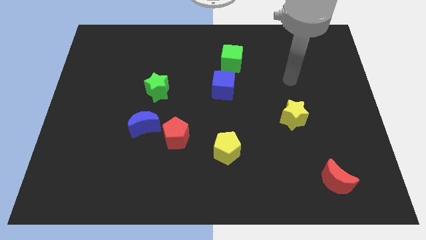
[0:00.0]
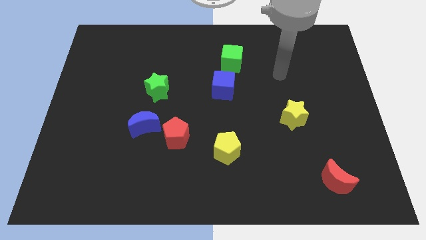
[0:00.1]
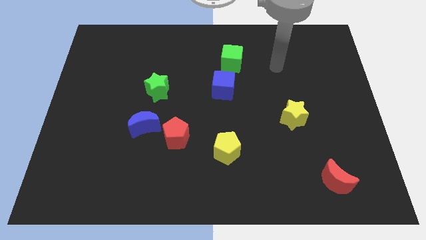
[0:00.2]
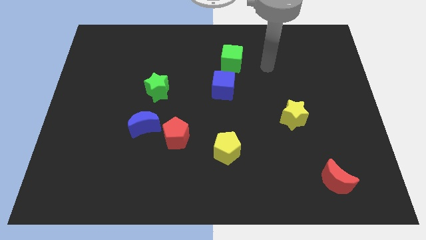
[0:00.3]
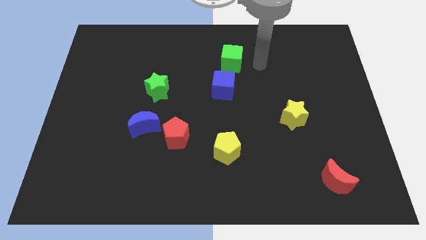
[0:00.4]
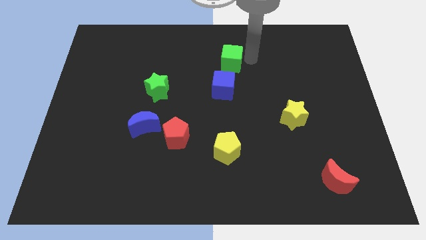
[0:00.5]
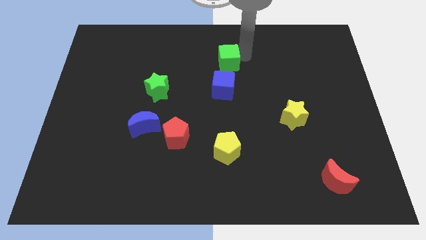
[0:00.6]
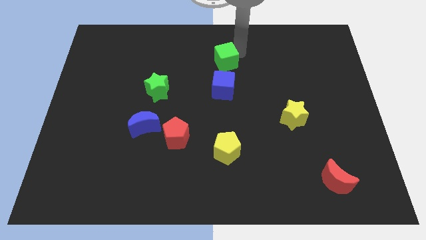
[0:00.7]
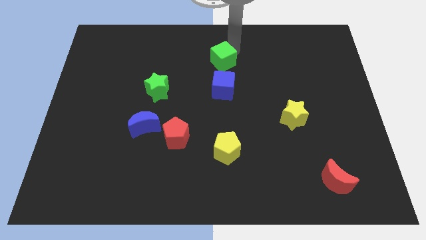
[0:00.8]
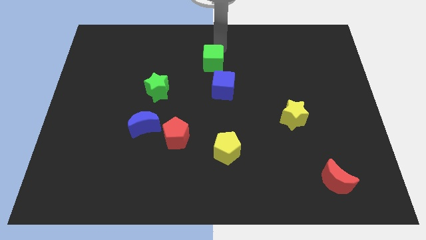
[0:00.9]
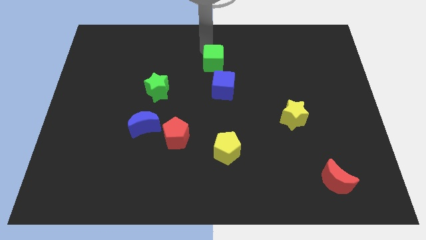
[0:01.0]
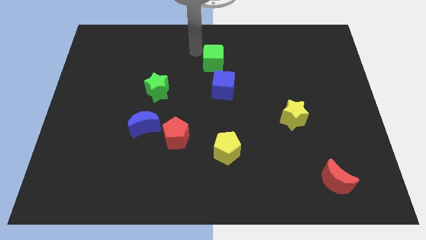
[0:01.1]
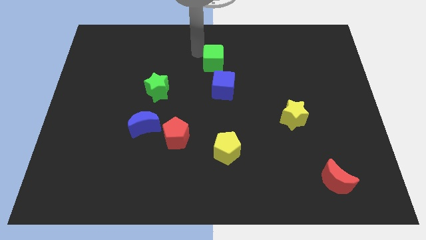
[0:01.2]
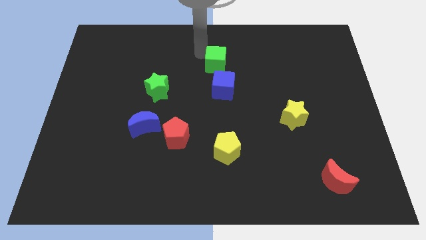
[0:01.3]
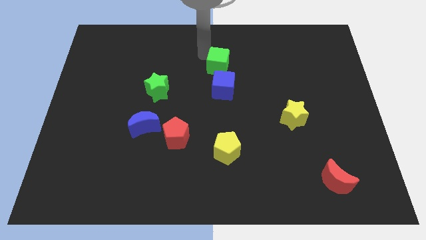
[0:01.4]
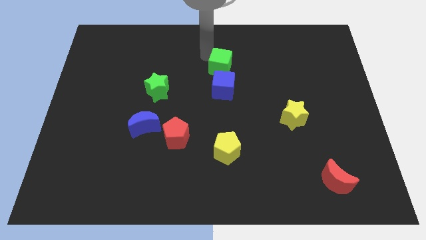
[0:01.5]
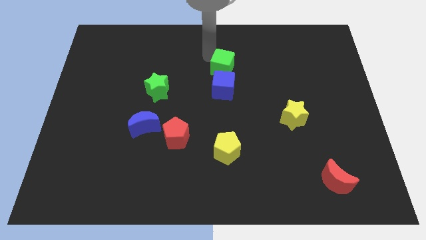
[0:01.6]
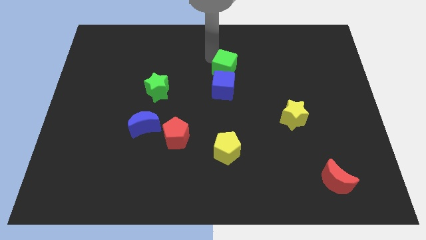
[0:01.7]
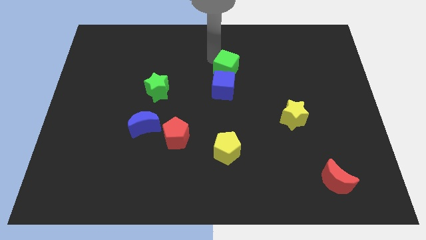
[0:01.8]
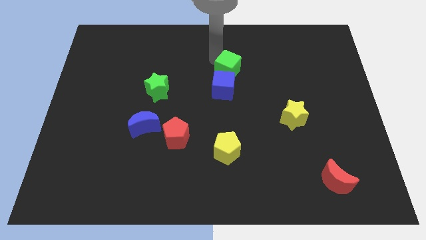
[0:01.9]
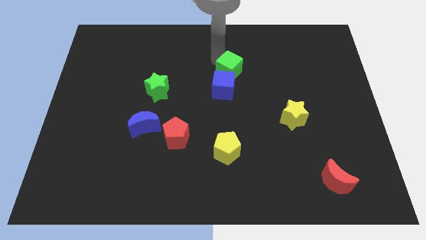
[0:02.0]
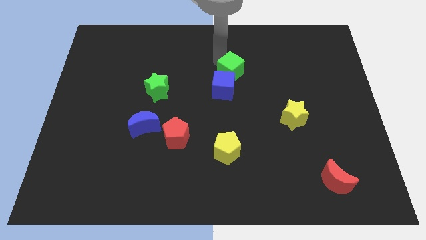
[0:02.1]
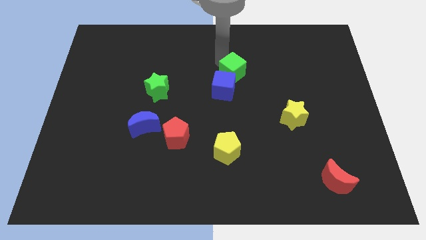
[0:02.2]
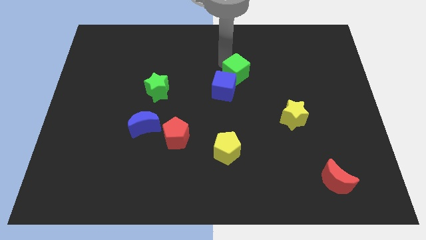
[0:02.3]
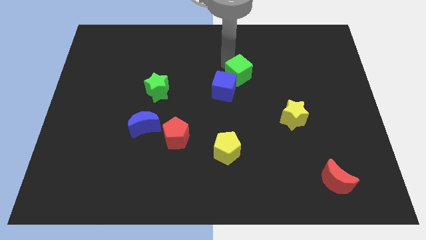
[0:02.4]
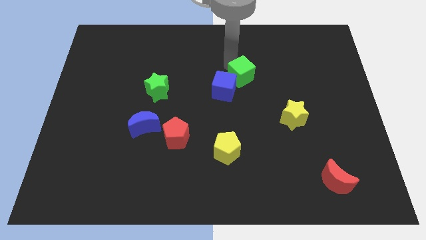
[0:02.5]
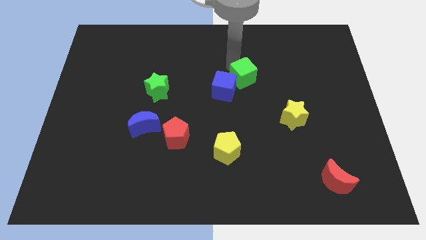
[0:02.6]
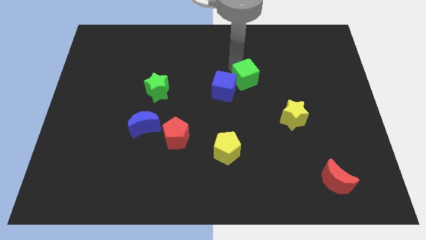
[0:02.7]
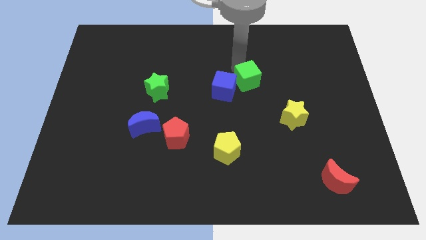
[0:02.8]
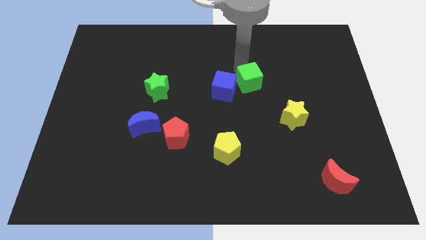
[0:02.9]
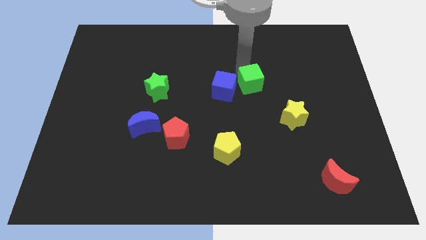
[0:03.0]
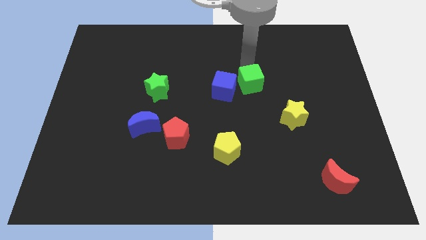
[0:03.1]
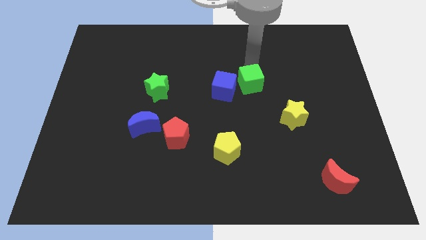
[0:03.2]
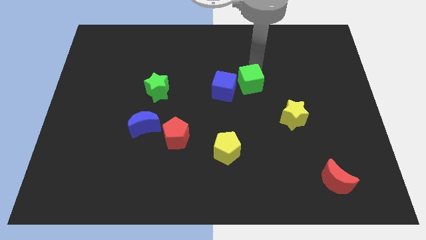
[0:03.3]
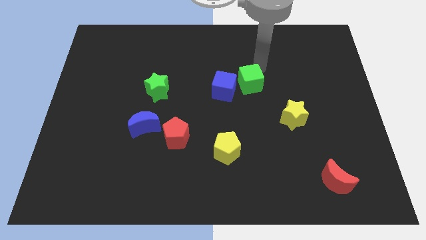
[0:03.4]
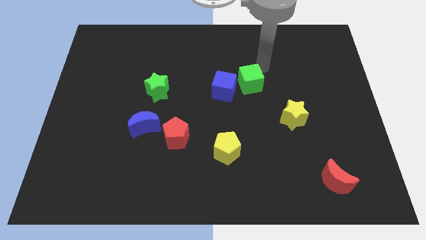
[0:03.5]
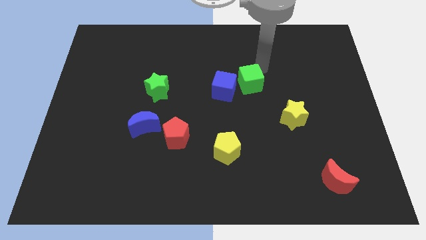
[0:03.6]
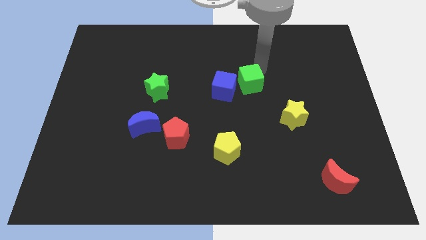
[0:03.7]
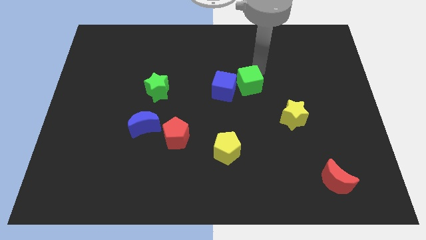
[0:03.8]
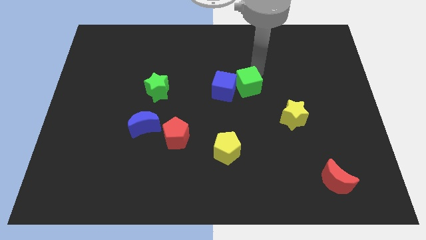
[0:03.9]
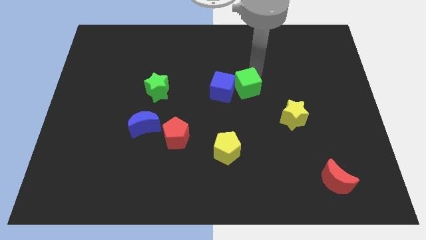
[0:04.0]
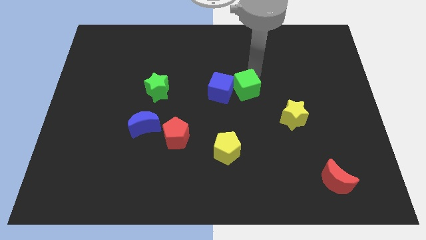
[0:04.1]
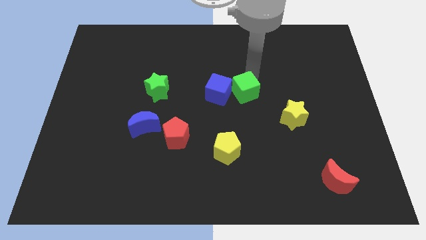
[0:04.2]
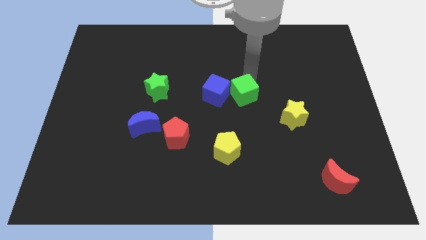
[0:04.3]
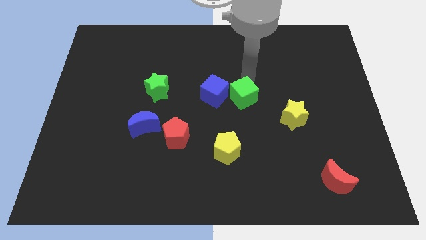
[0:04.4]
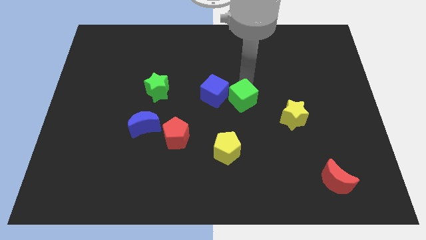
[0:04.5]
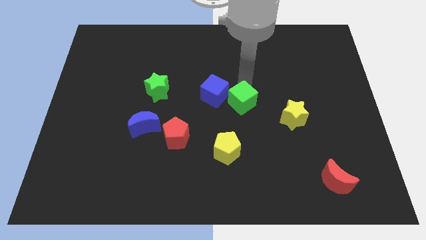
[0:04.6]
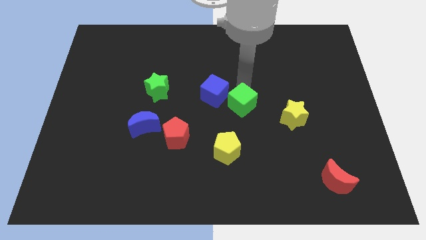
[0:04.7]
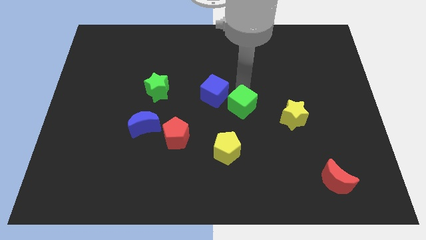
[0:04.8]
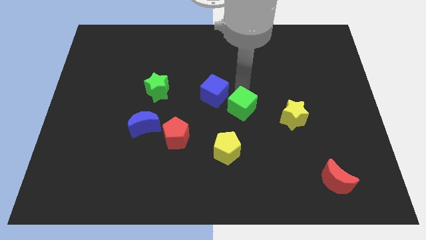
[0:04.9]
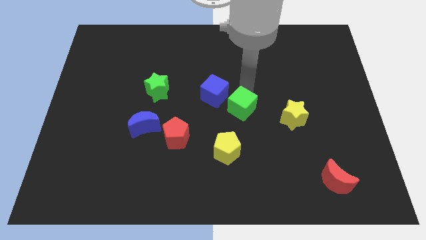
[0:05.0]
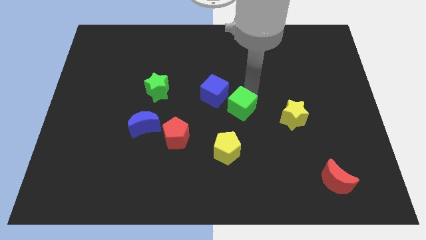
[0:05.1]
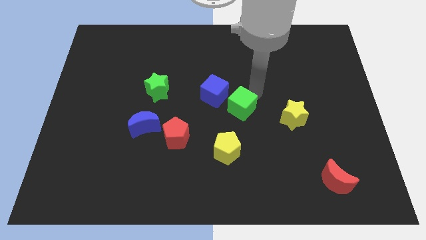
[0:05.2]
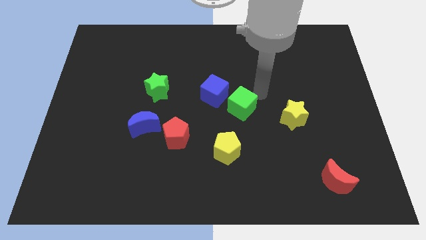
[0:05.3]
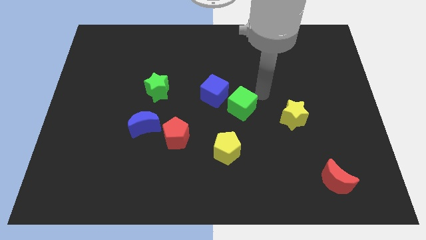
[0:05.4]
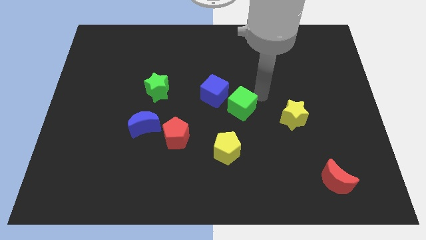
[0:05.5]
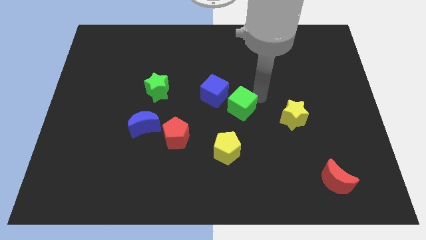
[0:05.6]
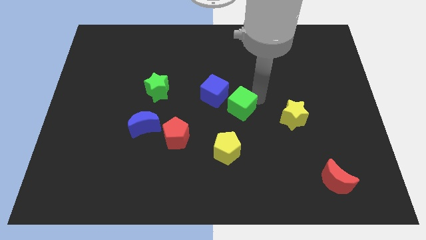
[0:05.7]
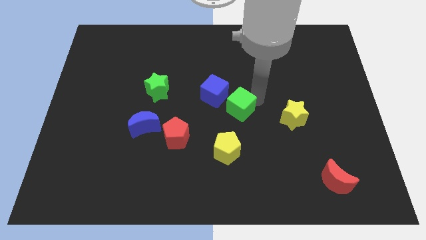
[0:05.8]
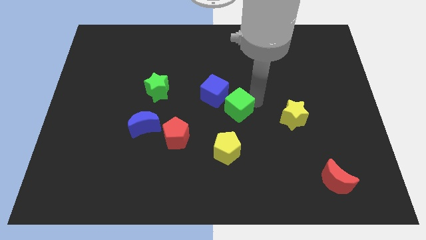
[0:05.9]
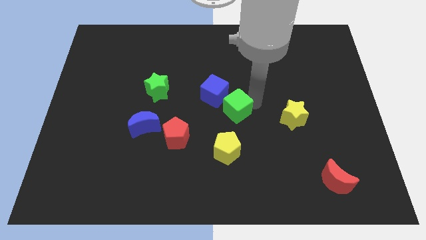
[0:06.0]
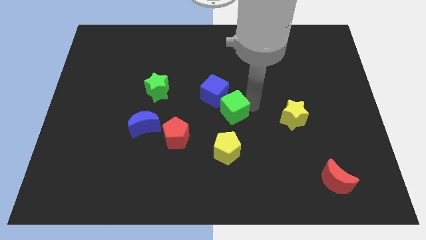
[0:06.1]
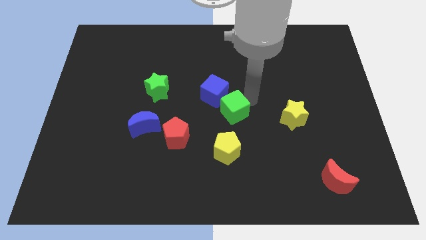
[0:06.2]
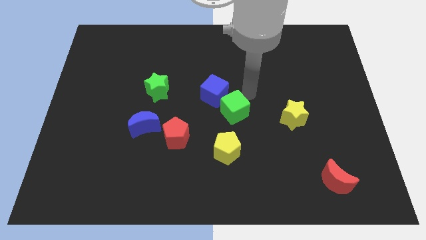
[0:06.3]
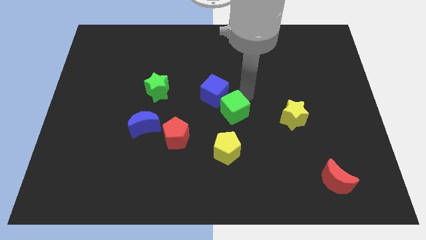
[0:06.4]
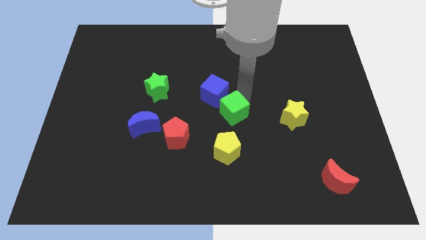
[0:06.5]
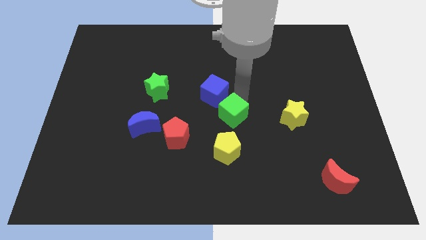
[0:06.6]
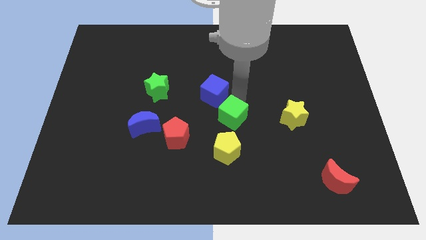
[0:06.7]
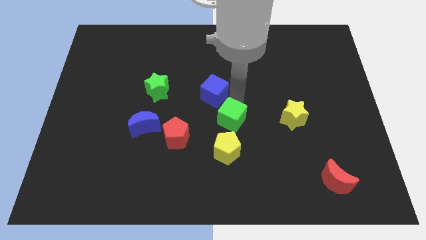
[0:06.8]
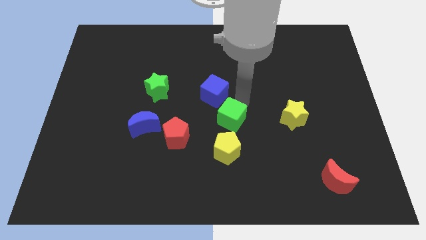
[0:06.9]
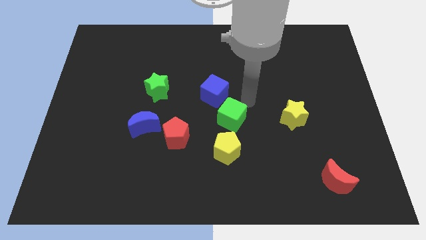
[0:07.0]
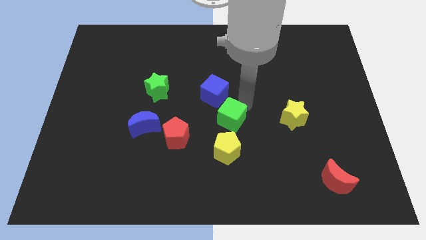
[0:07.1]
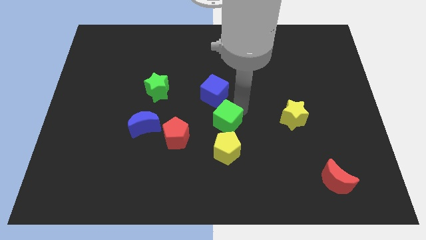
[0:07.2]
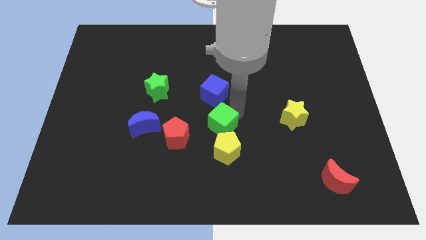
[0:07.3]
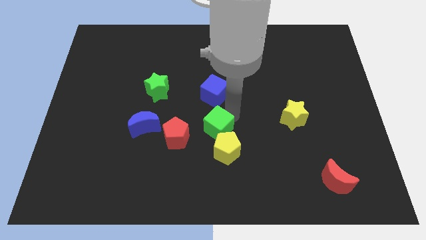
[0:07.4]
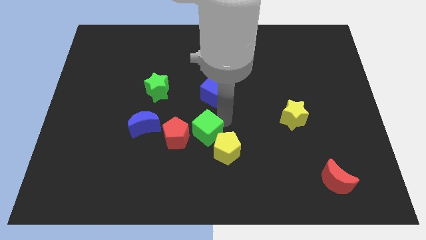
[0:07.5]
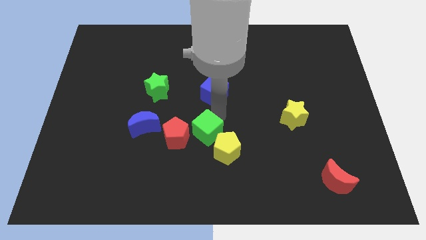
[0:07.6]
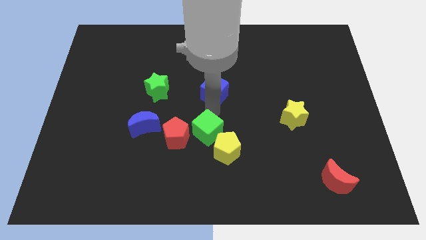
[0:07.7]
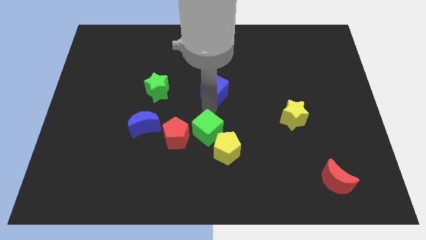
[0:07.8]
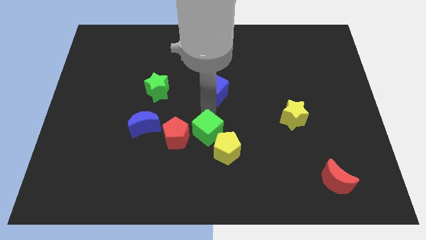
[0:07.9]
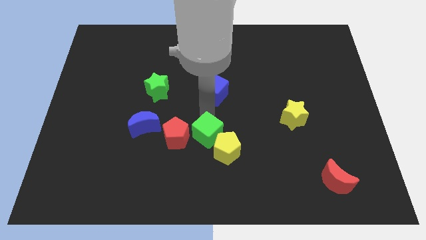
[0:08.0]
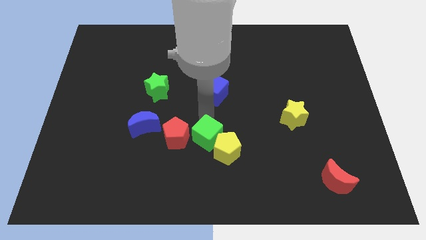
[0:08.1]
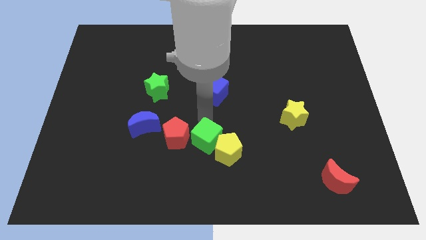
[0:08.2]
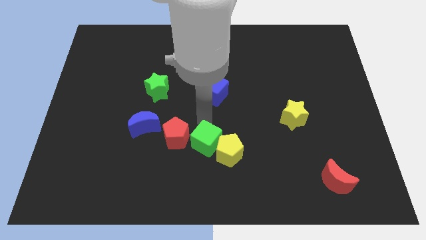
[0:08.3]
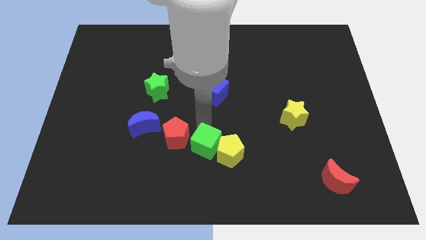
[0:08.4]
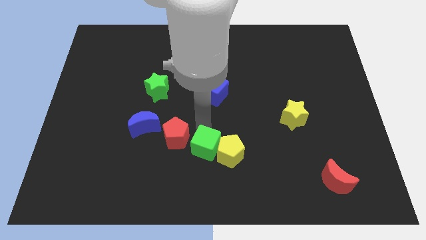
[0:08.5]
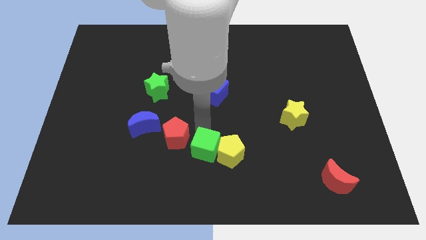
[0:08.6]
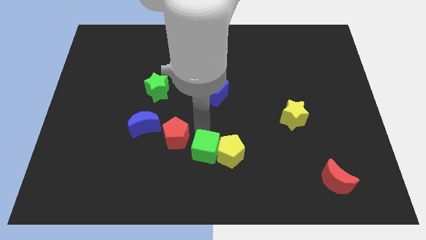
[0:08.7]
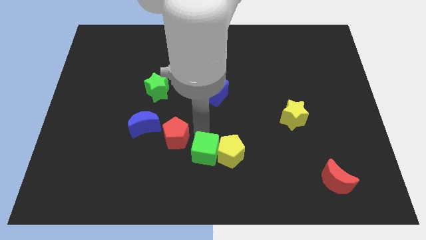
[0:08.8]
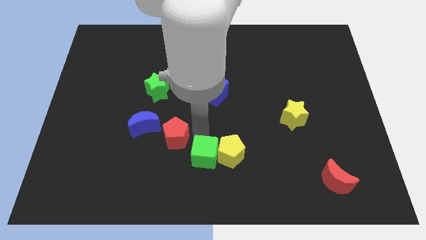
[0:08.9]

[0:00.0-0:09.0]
slide the green cube to the bottom
